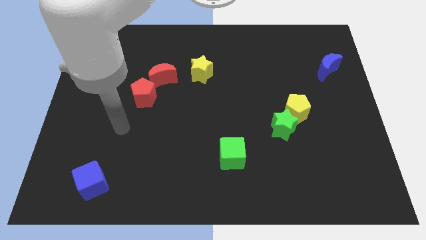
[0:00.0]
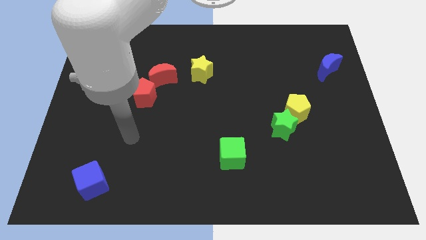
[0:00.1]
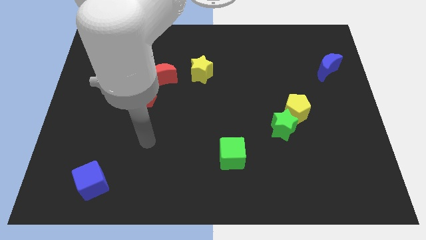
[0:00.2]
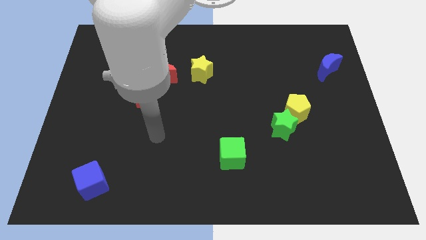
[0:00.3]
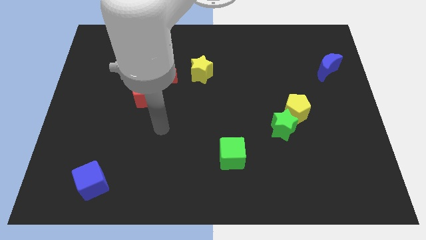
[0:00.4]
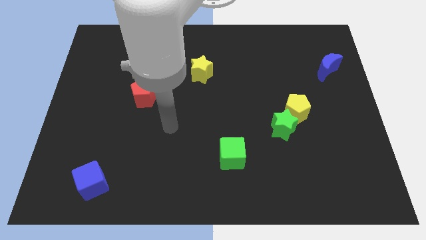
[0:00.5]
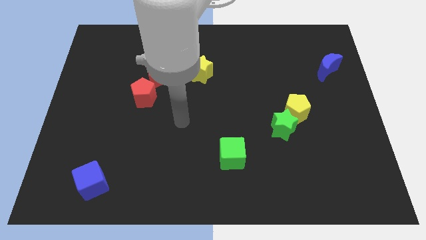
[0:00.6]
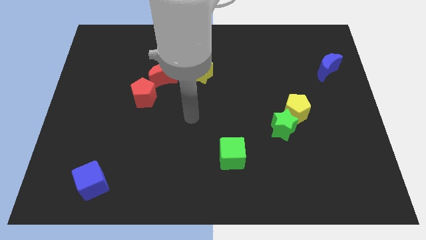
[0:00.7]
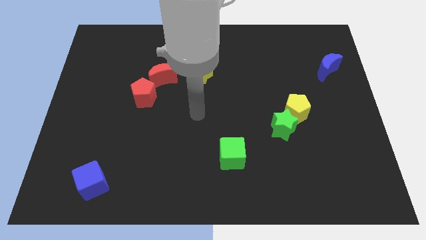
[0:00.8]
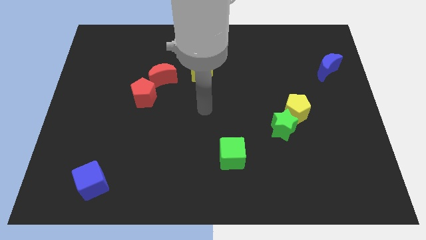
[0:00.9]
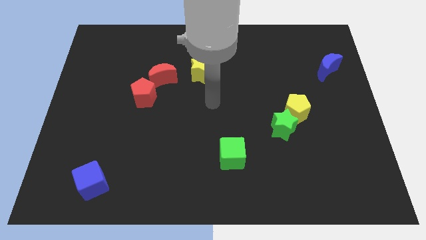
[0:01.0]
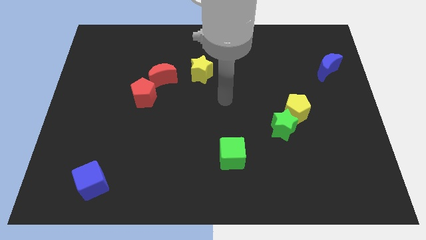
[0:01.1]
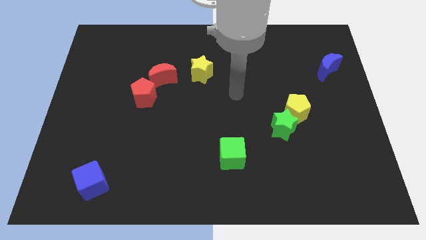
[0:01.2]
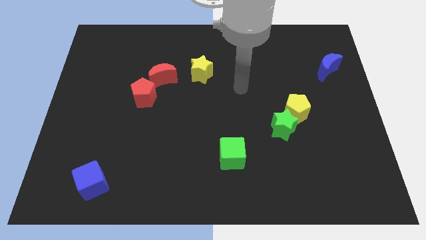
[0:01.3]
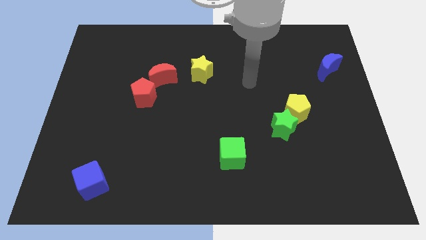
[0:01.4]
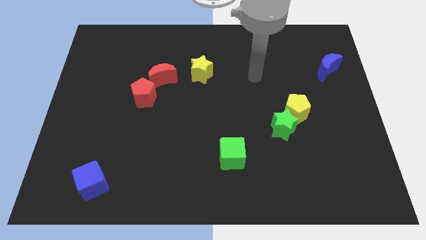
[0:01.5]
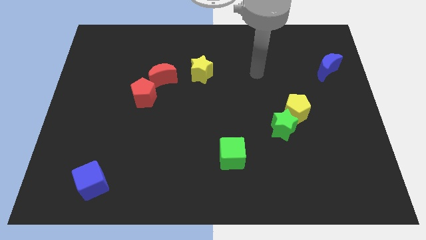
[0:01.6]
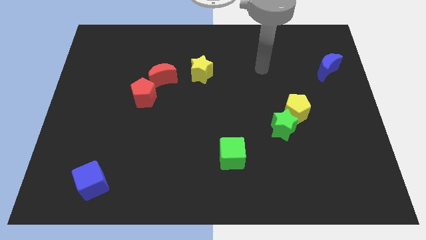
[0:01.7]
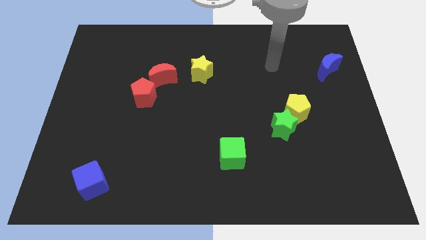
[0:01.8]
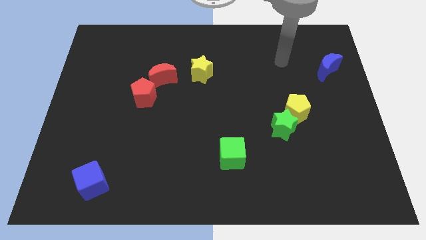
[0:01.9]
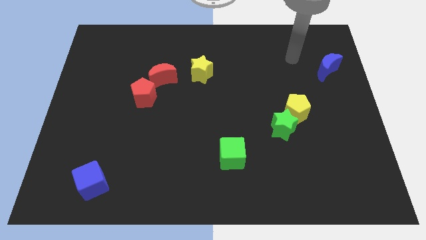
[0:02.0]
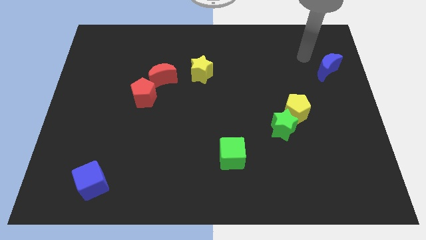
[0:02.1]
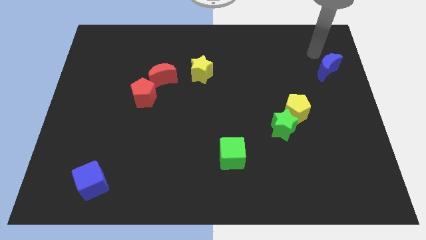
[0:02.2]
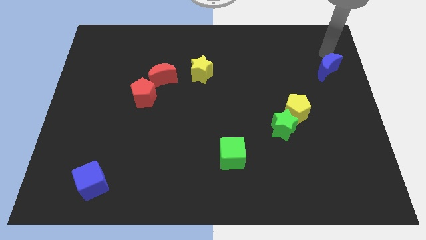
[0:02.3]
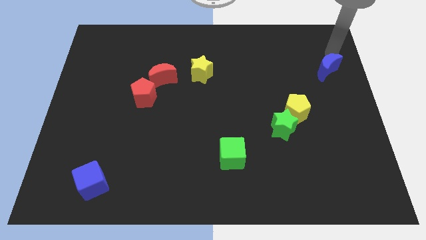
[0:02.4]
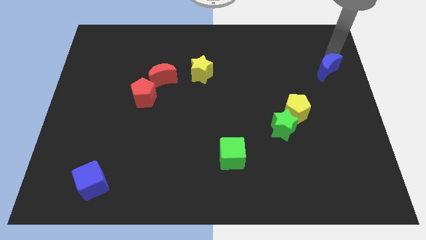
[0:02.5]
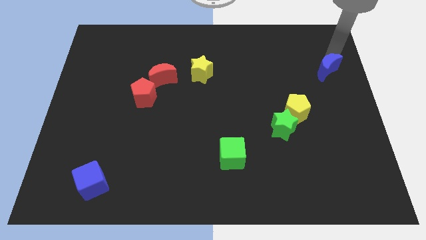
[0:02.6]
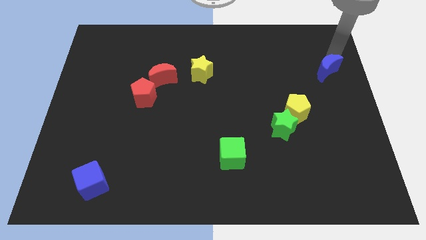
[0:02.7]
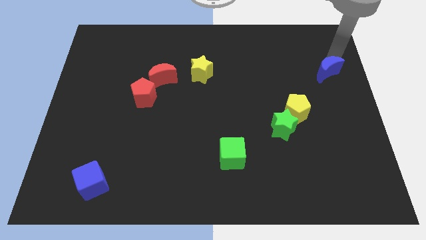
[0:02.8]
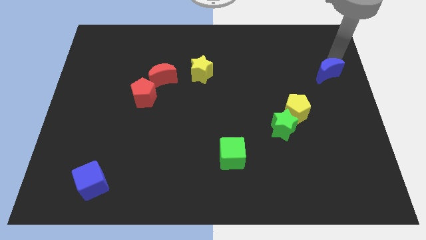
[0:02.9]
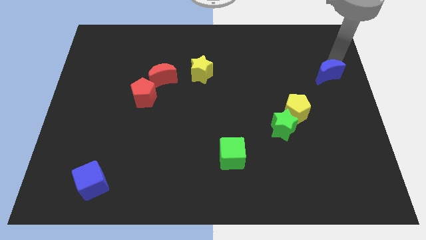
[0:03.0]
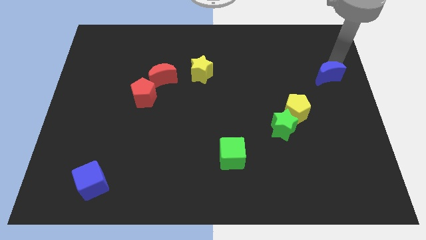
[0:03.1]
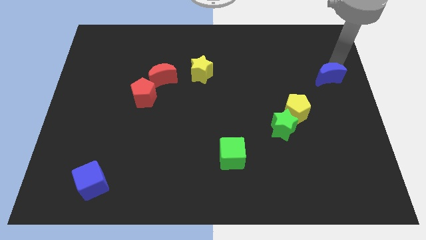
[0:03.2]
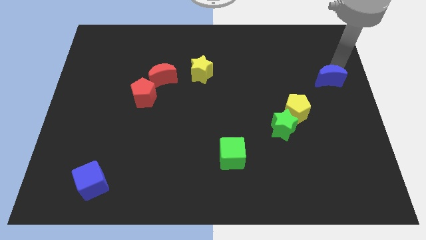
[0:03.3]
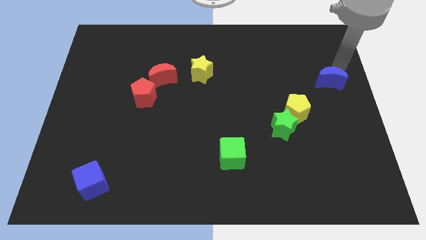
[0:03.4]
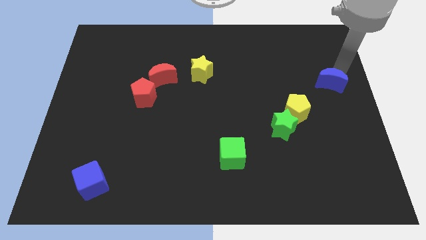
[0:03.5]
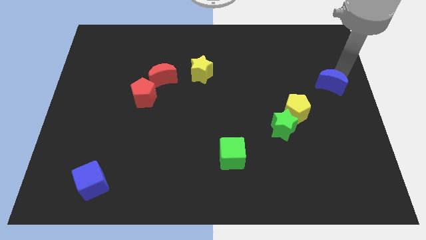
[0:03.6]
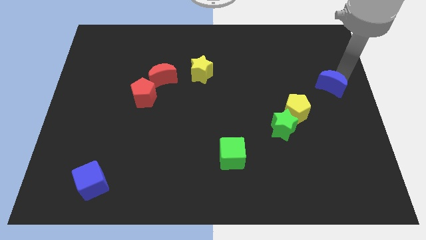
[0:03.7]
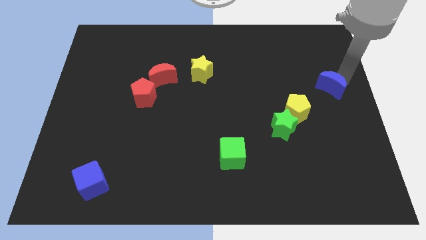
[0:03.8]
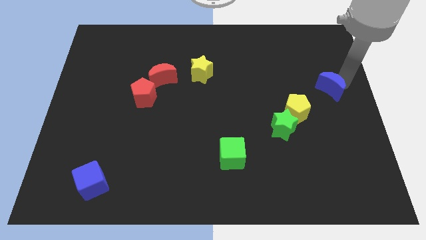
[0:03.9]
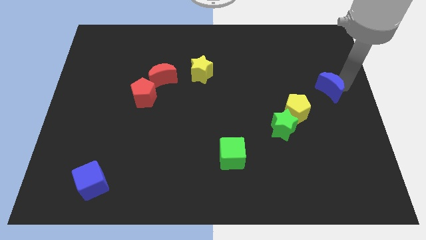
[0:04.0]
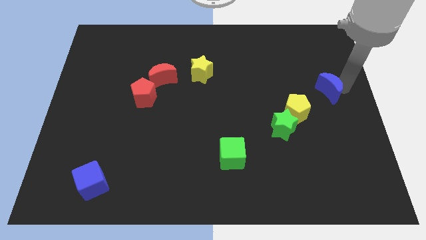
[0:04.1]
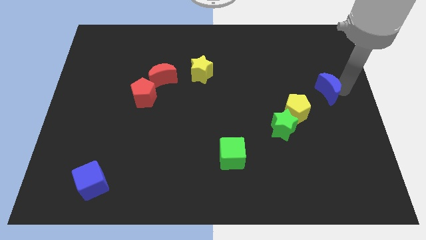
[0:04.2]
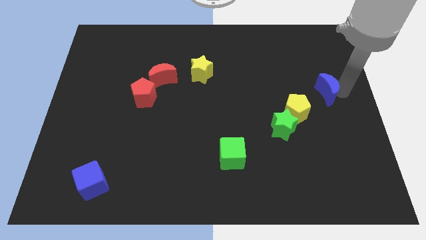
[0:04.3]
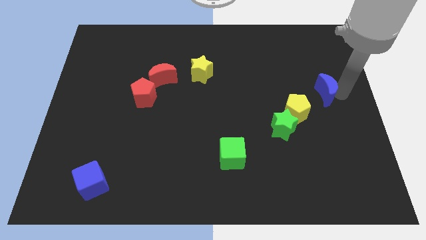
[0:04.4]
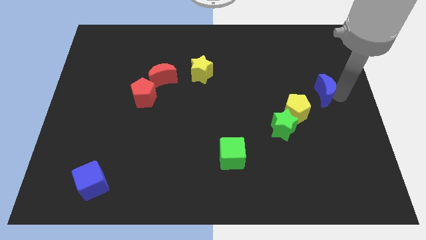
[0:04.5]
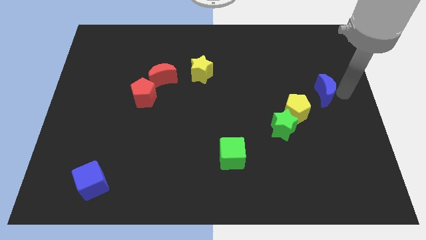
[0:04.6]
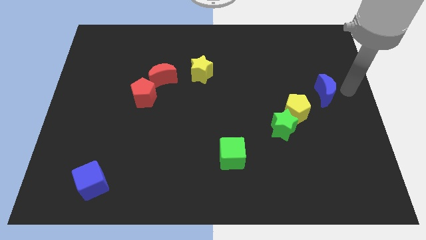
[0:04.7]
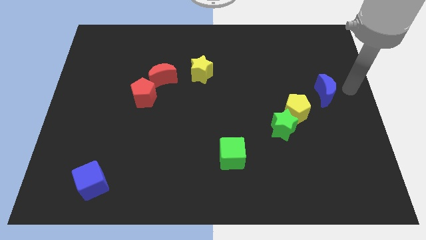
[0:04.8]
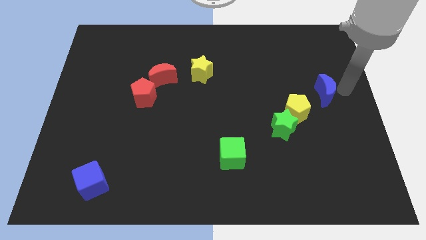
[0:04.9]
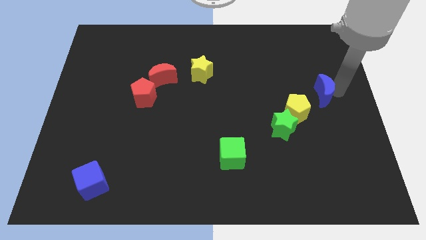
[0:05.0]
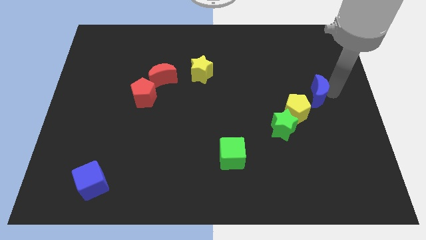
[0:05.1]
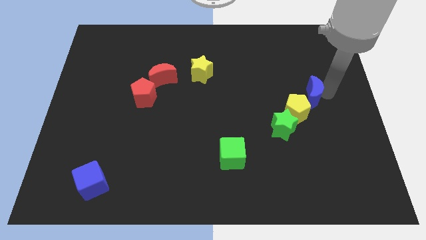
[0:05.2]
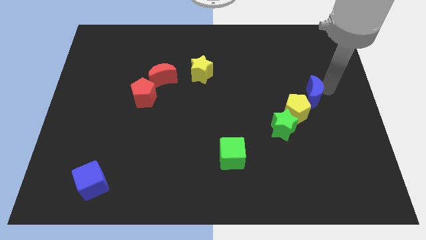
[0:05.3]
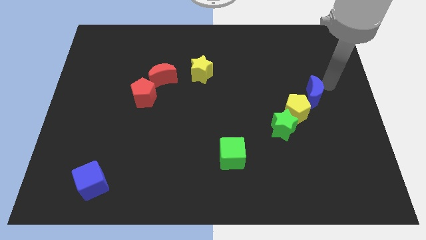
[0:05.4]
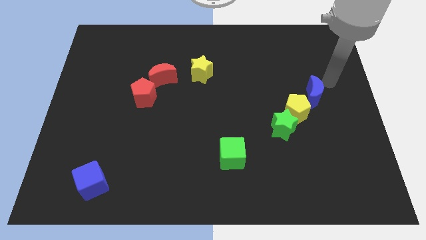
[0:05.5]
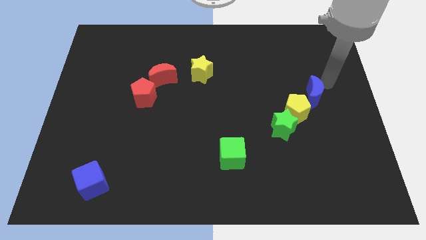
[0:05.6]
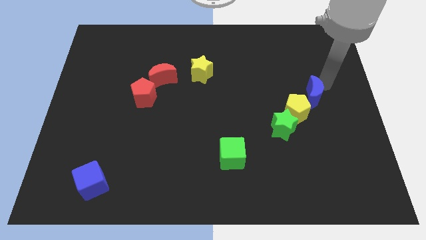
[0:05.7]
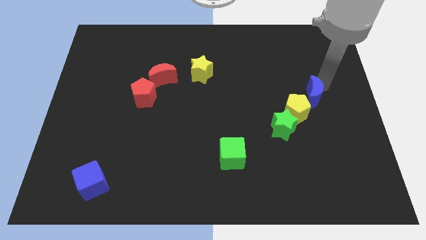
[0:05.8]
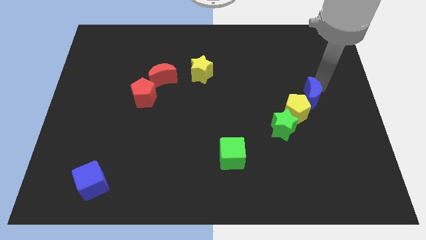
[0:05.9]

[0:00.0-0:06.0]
slide the blue moon close to the yellow pentagon
